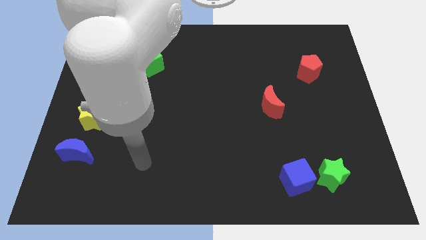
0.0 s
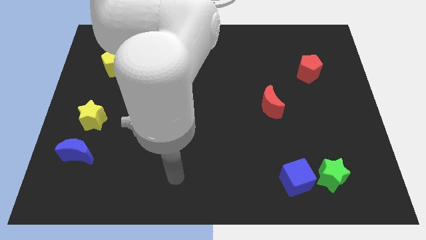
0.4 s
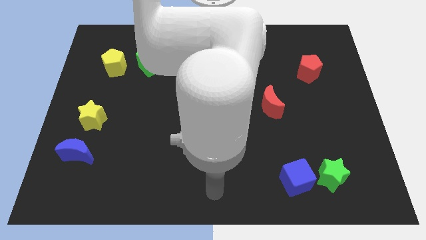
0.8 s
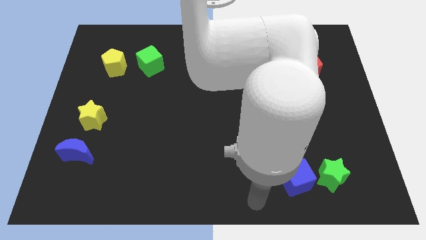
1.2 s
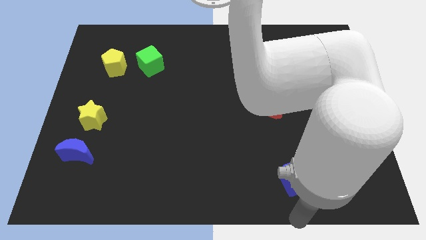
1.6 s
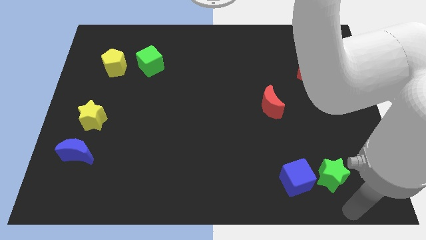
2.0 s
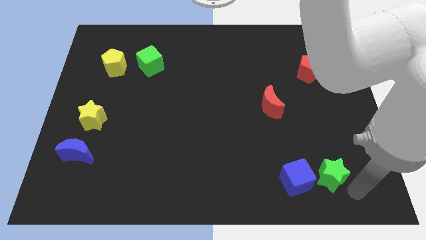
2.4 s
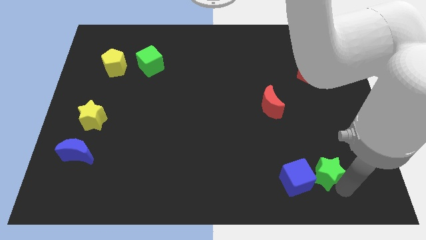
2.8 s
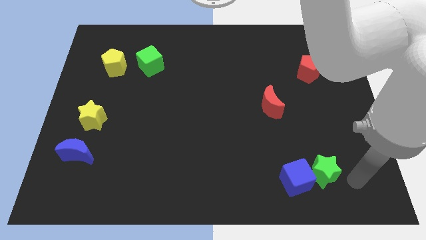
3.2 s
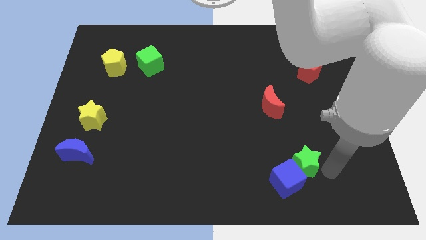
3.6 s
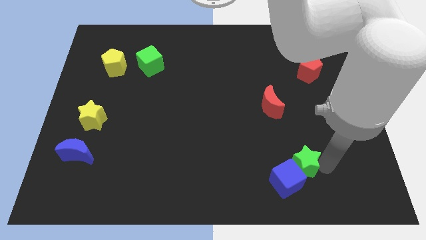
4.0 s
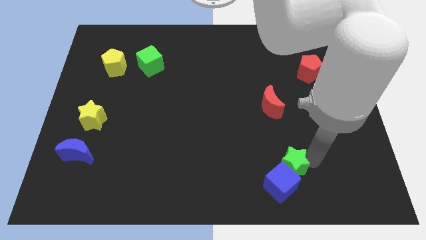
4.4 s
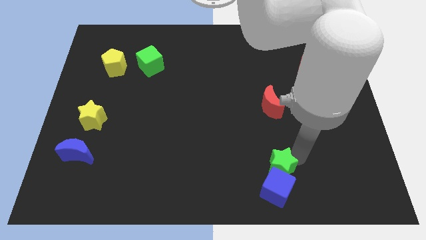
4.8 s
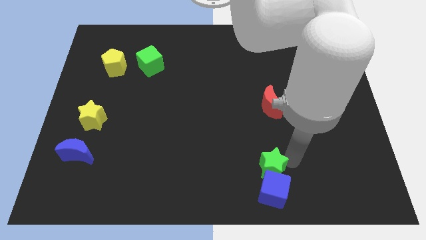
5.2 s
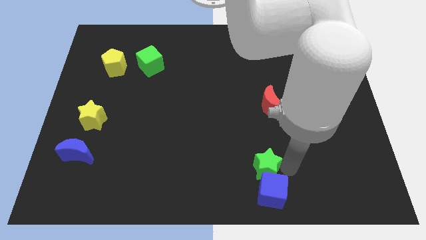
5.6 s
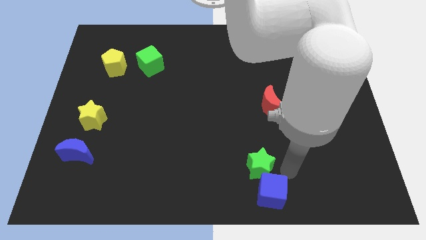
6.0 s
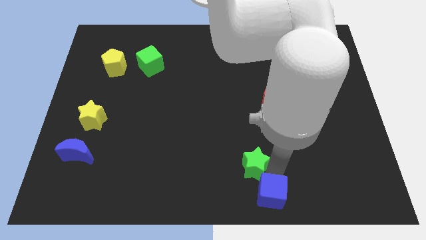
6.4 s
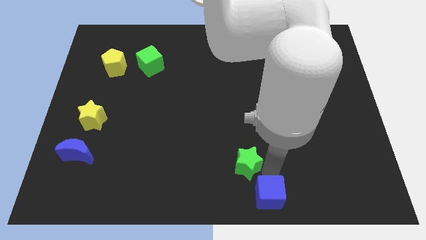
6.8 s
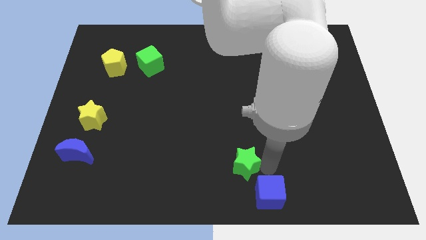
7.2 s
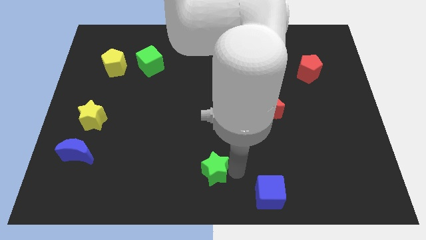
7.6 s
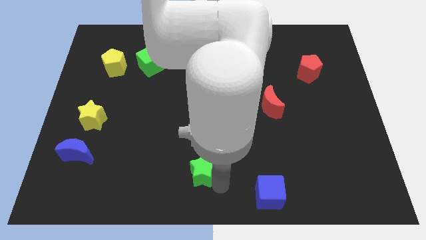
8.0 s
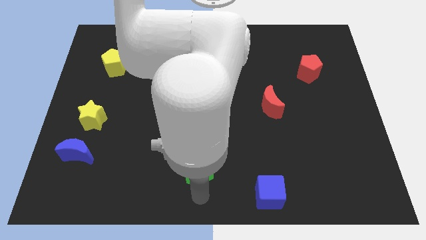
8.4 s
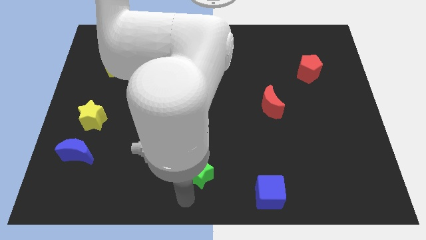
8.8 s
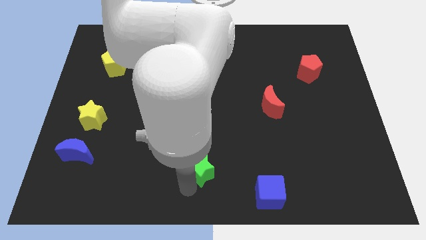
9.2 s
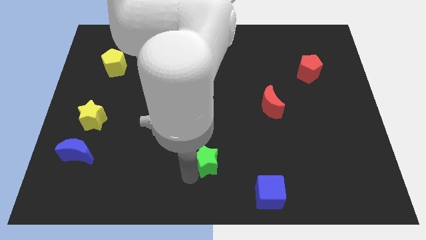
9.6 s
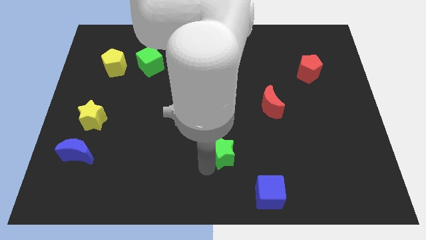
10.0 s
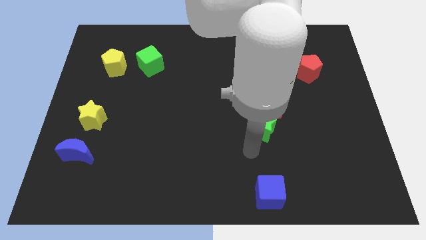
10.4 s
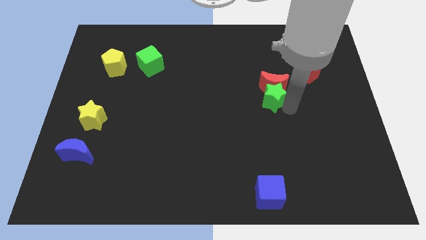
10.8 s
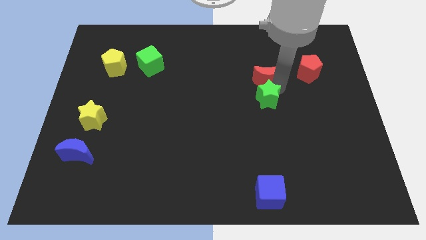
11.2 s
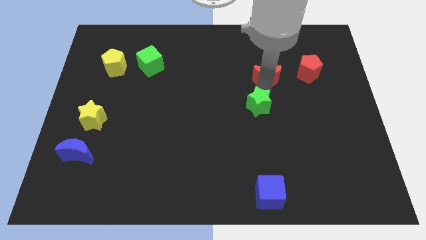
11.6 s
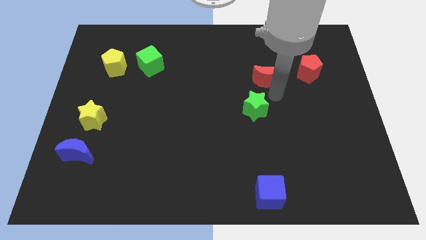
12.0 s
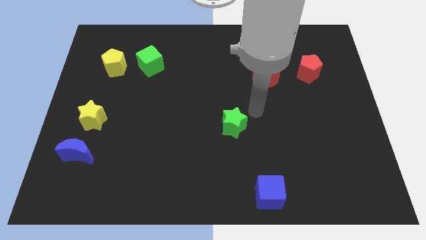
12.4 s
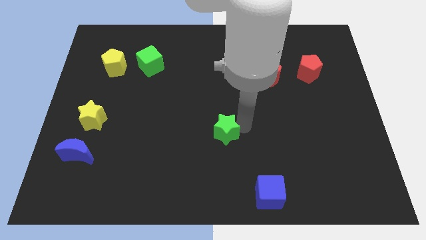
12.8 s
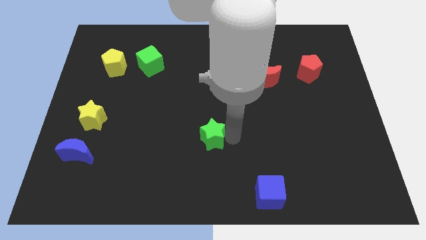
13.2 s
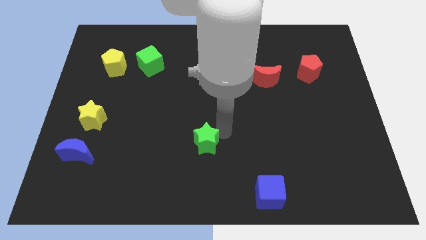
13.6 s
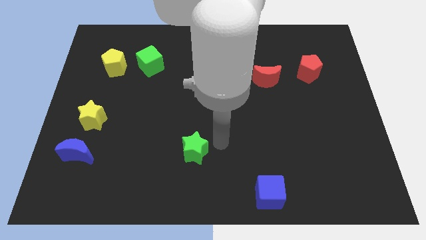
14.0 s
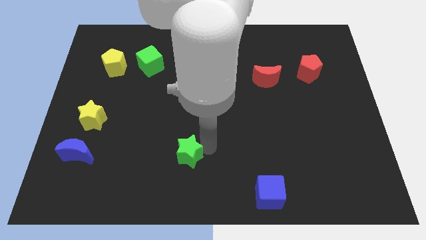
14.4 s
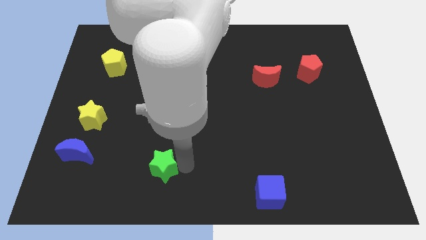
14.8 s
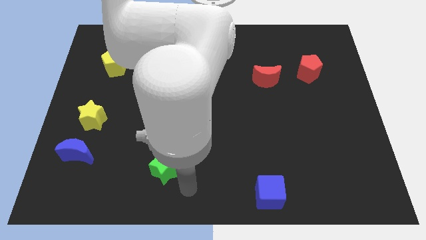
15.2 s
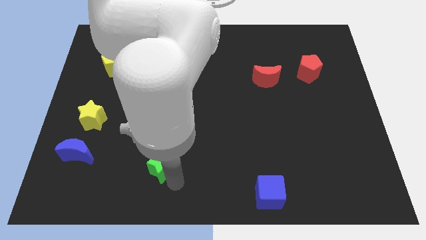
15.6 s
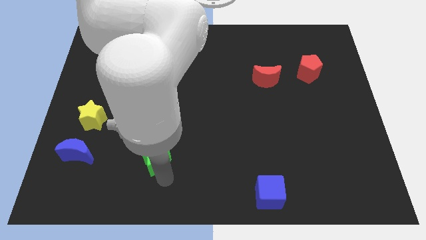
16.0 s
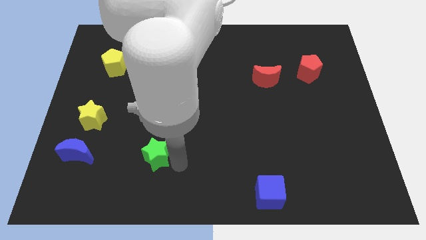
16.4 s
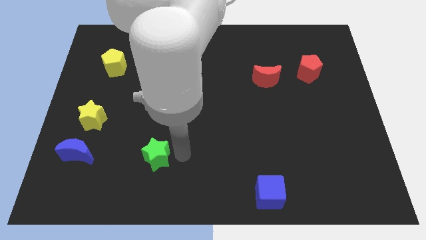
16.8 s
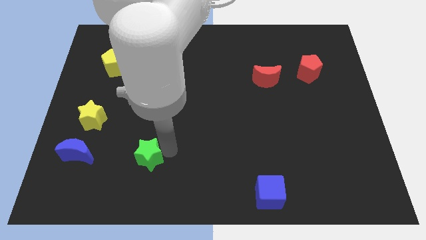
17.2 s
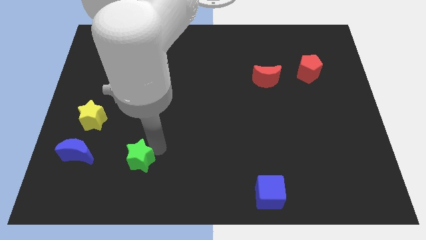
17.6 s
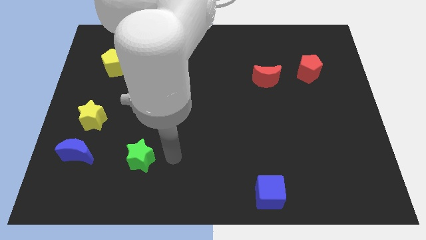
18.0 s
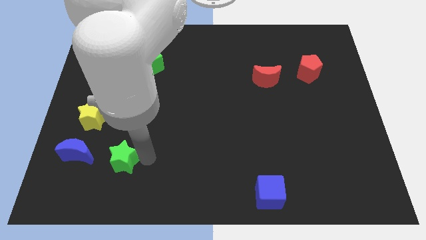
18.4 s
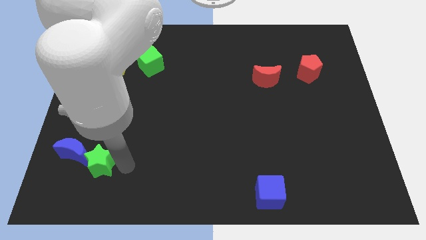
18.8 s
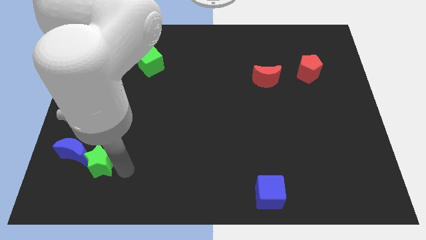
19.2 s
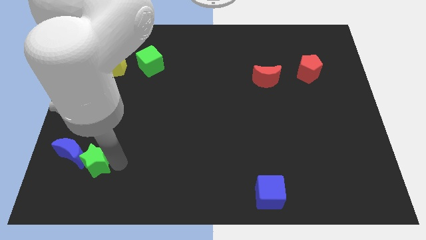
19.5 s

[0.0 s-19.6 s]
slide the green star towards the blue moon

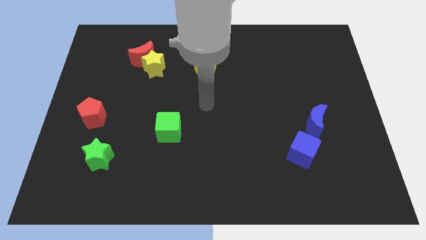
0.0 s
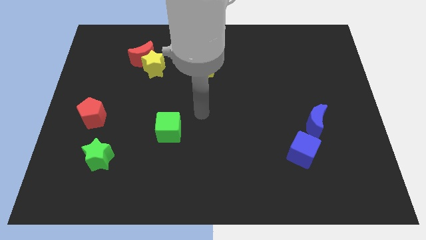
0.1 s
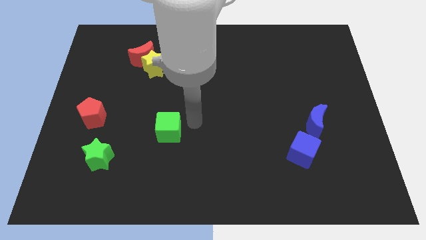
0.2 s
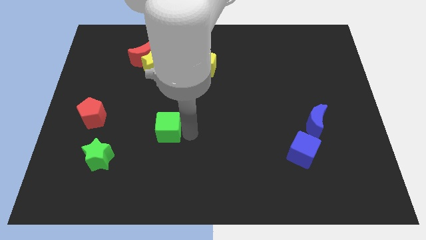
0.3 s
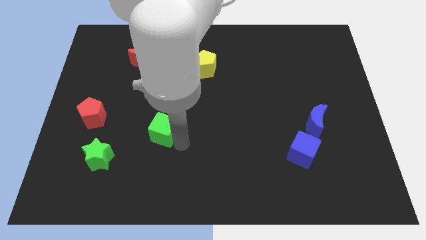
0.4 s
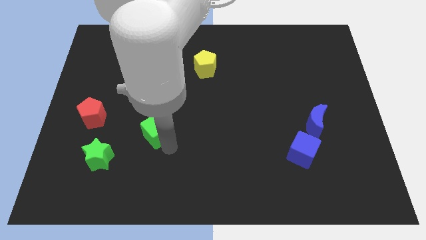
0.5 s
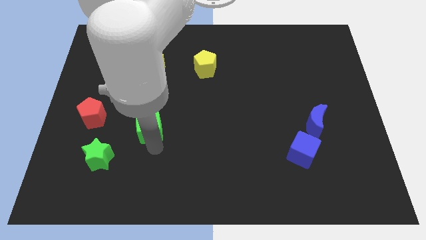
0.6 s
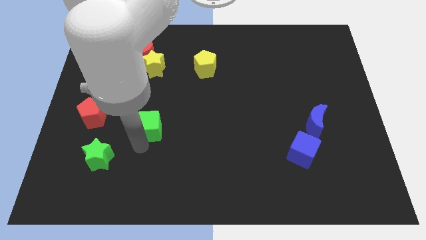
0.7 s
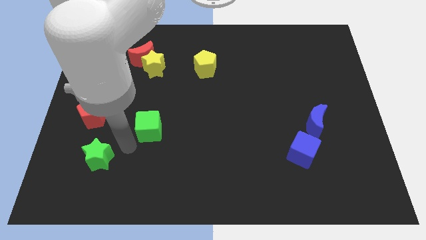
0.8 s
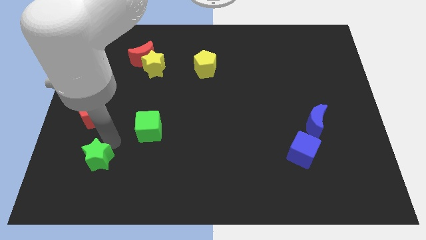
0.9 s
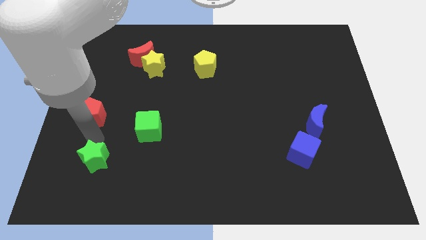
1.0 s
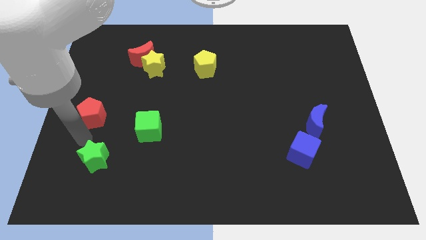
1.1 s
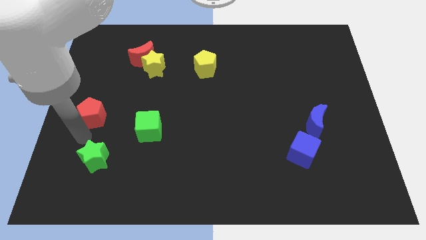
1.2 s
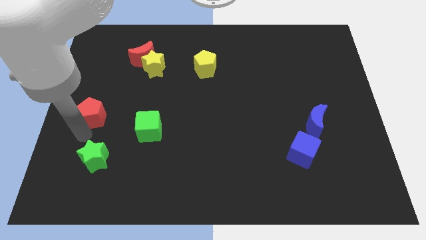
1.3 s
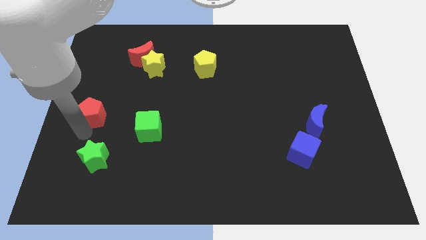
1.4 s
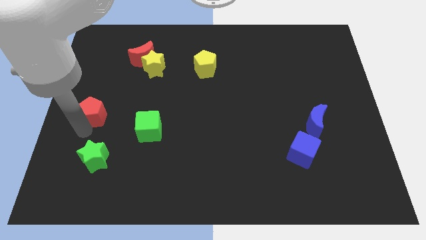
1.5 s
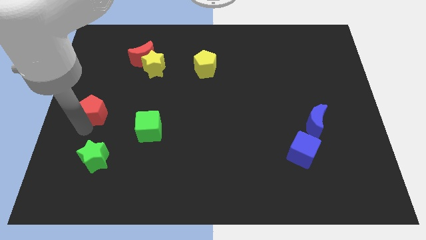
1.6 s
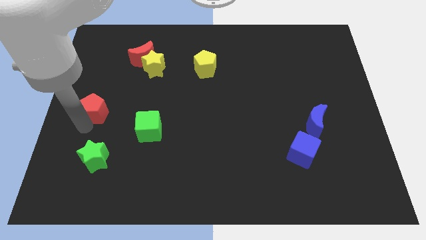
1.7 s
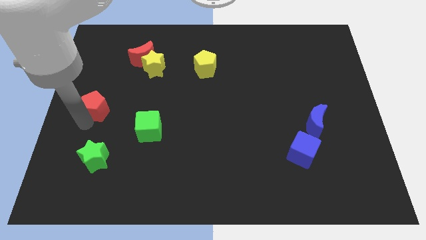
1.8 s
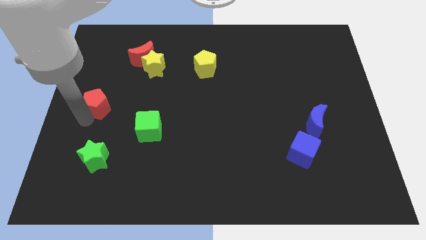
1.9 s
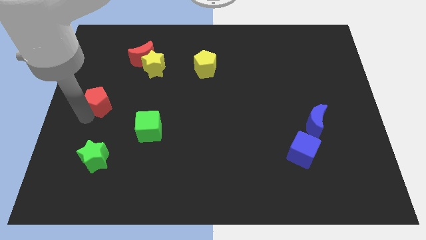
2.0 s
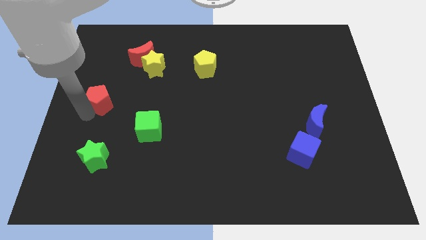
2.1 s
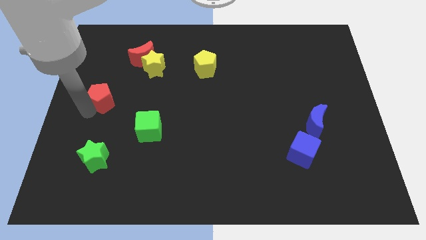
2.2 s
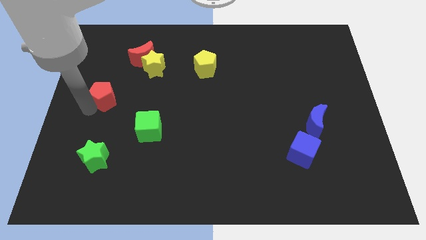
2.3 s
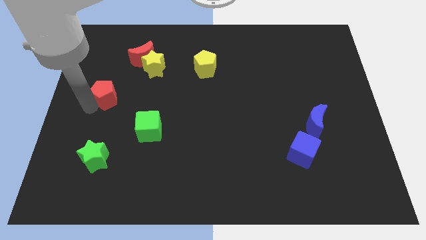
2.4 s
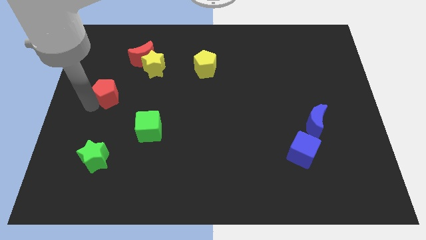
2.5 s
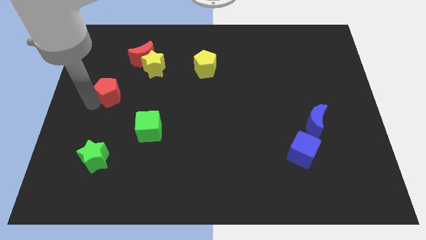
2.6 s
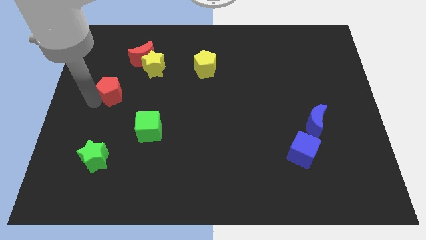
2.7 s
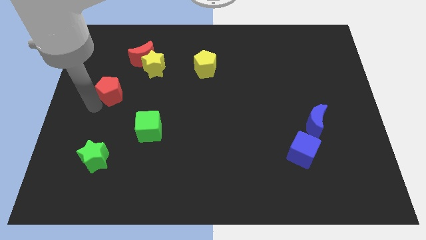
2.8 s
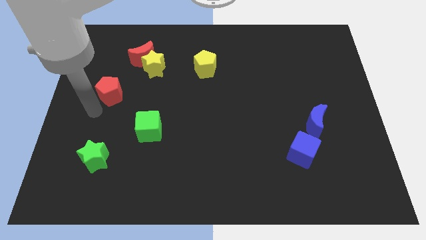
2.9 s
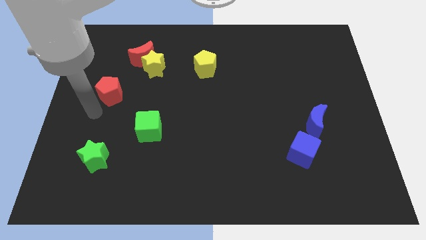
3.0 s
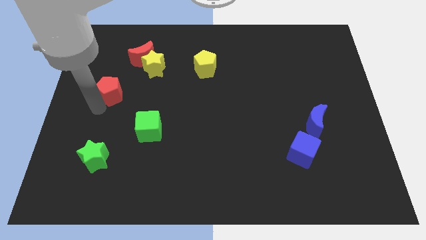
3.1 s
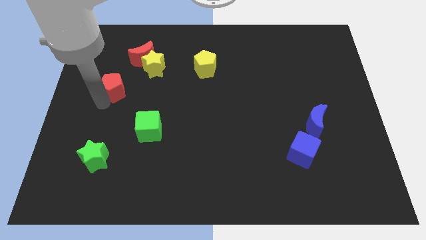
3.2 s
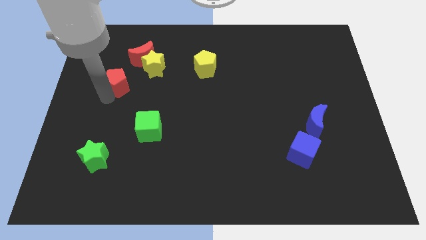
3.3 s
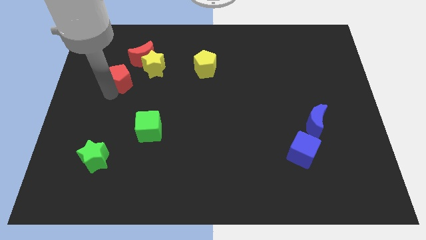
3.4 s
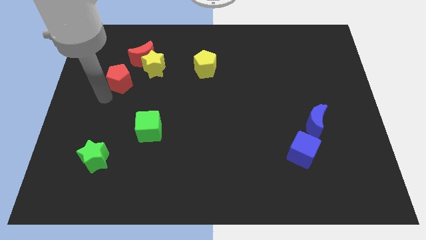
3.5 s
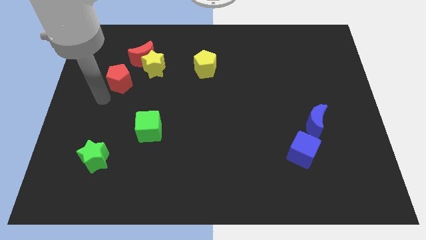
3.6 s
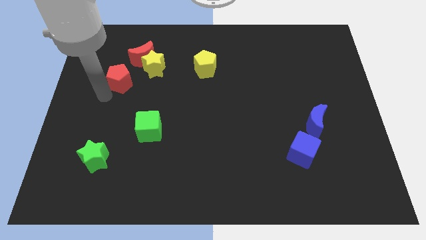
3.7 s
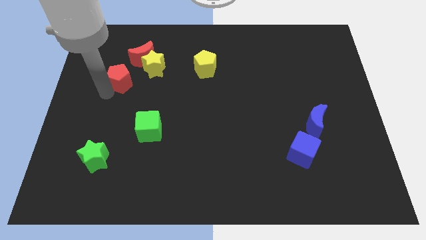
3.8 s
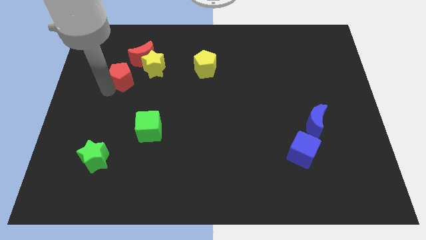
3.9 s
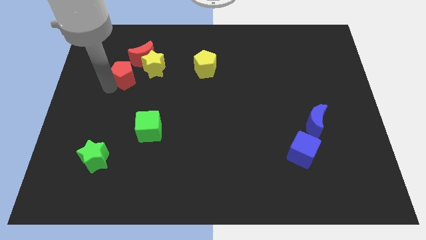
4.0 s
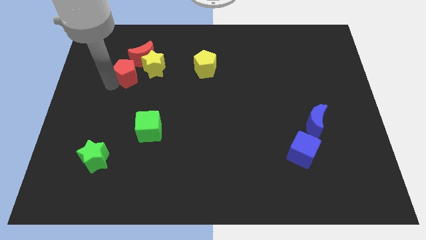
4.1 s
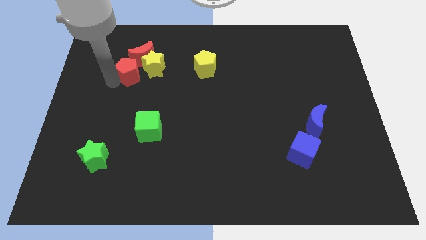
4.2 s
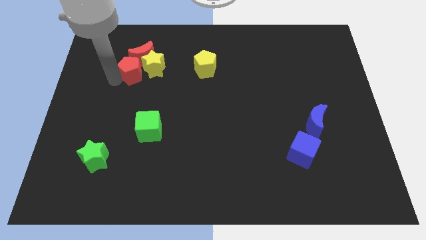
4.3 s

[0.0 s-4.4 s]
slide the red pentagon close to the red moon
